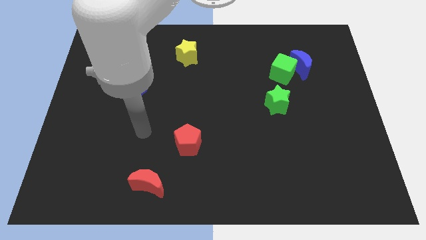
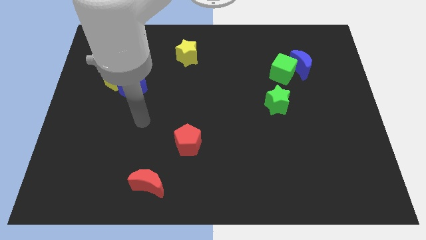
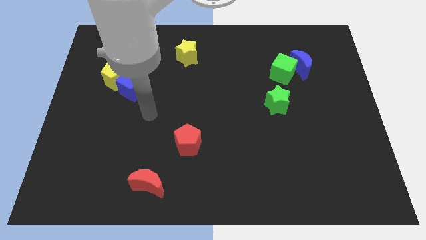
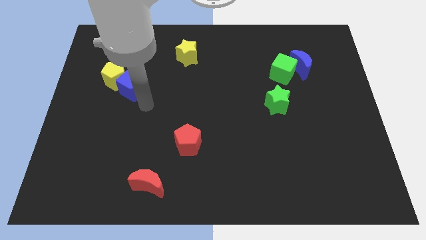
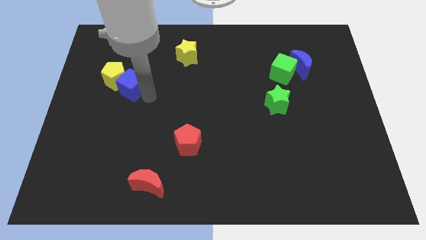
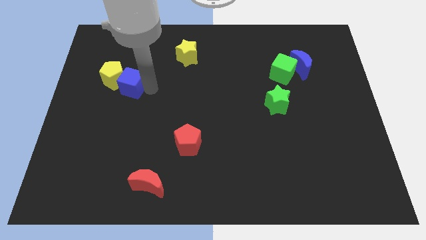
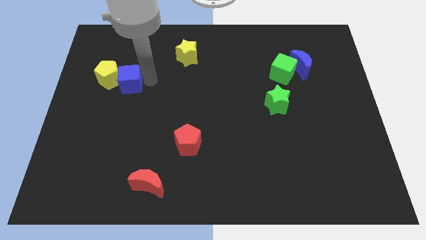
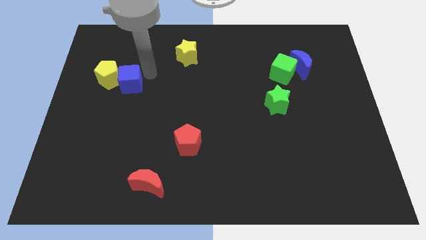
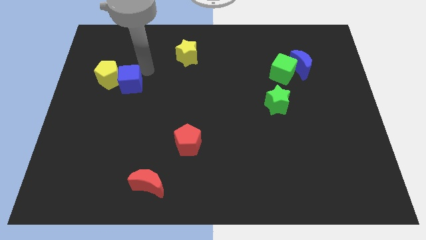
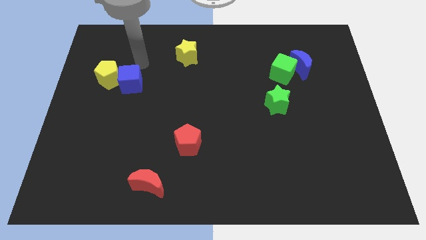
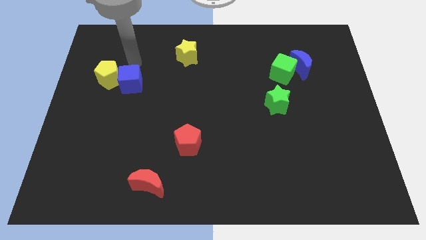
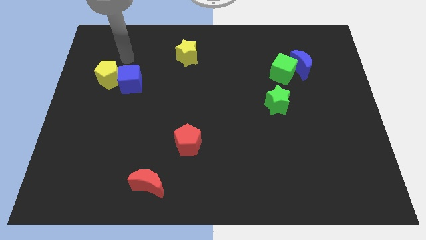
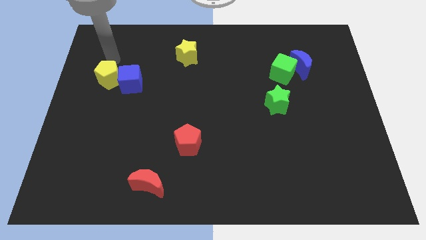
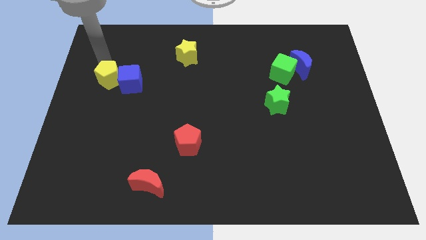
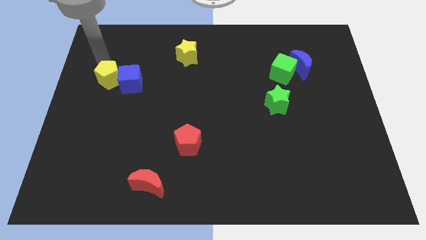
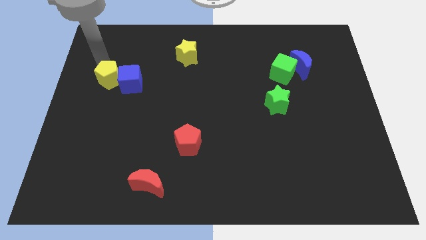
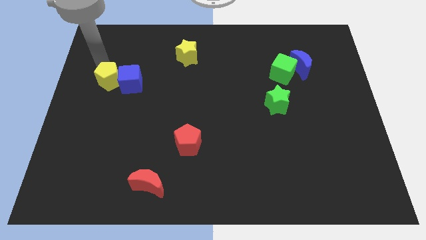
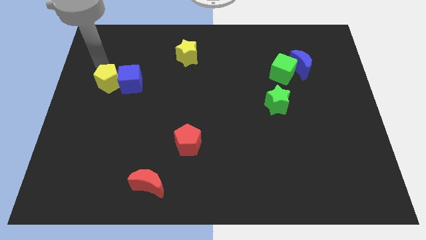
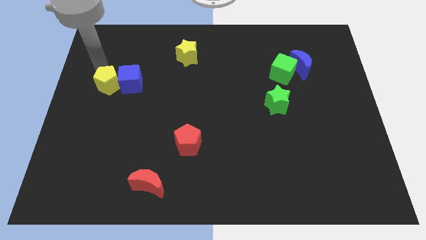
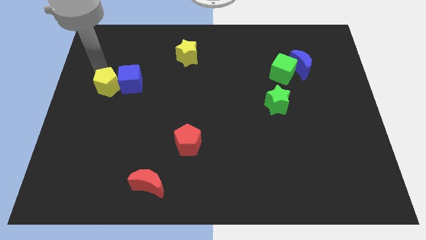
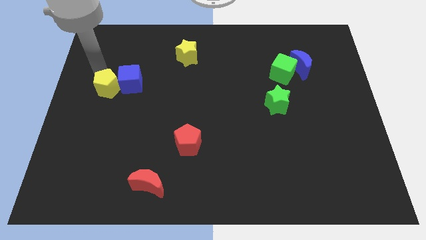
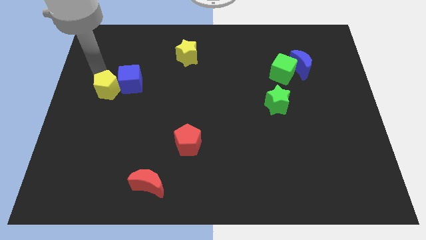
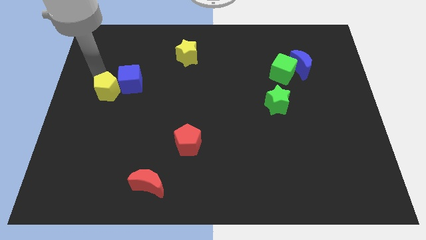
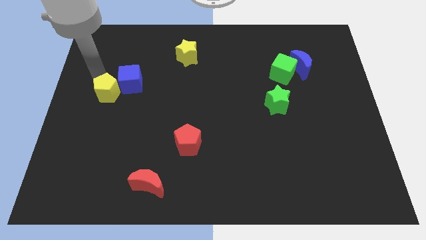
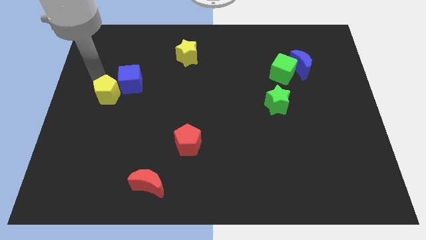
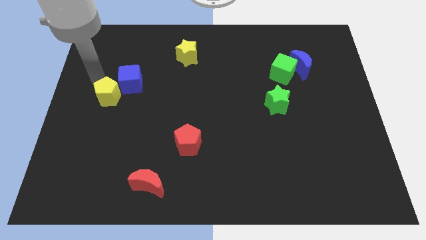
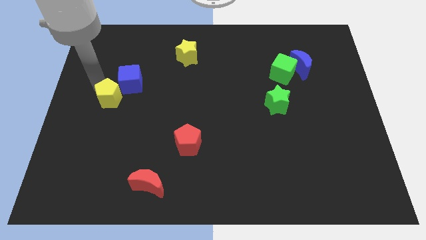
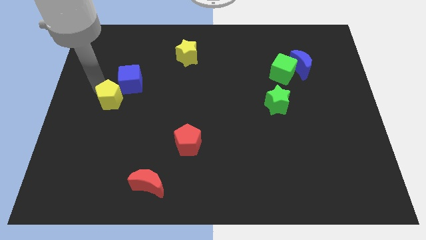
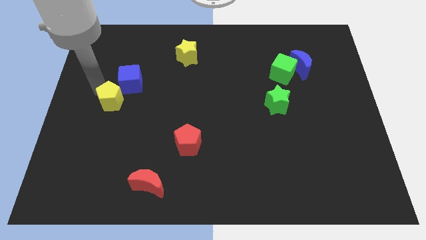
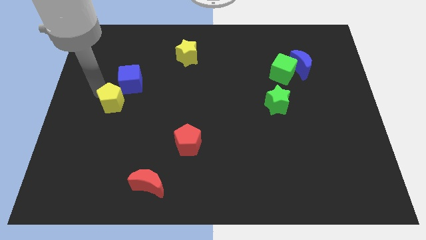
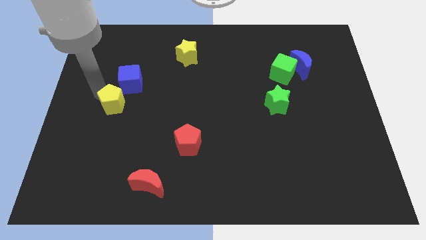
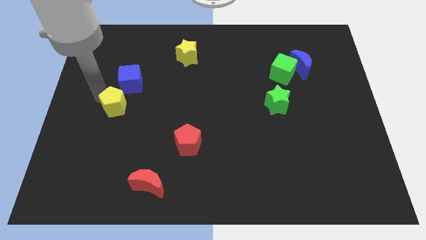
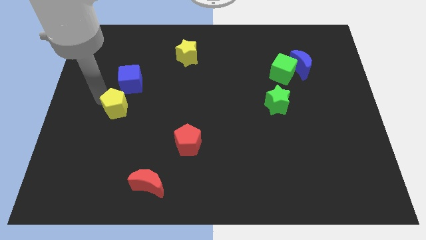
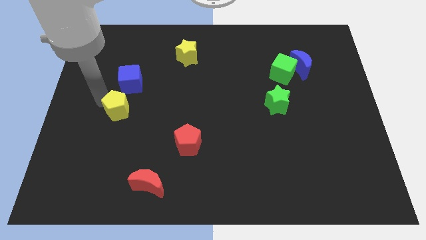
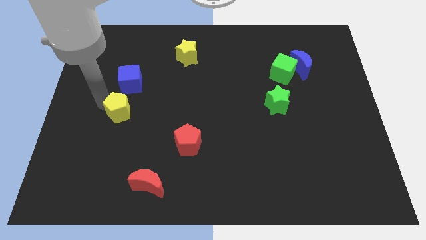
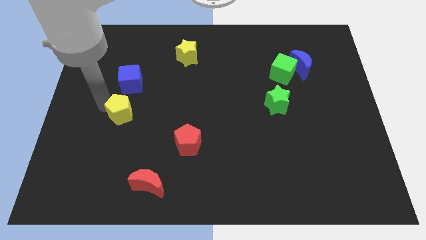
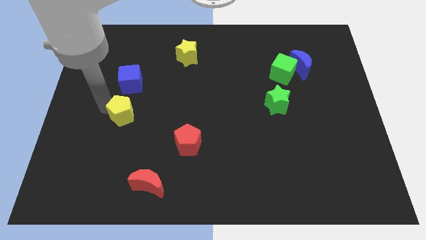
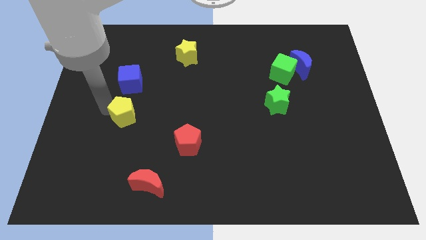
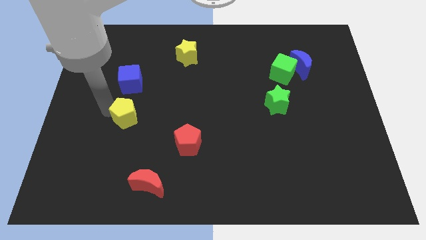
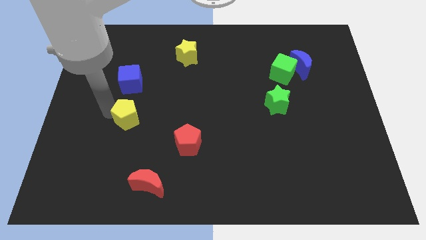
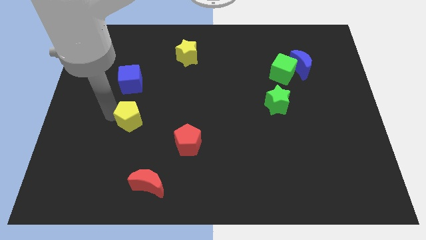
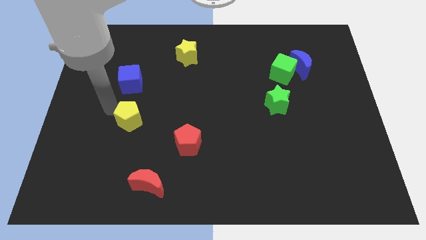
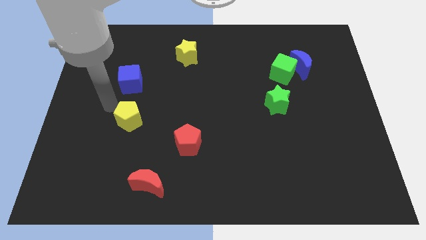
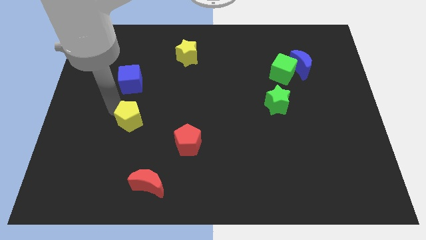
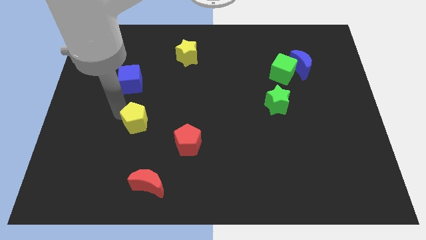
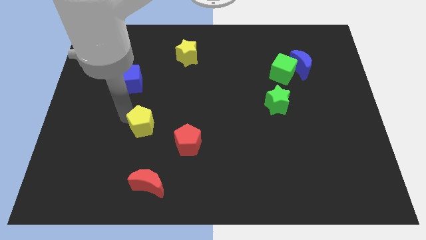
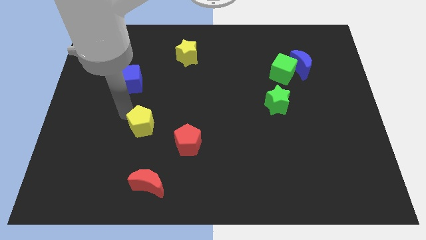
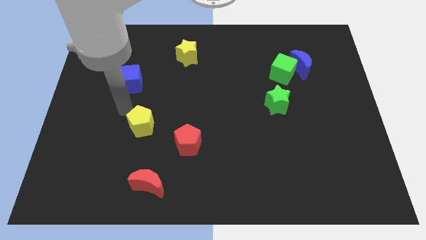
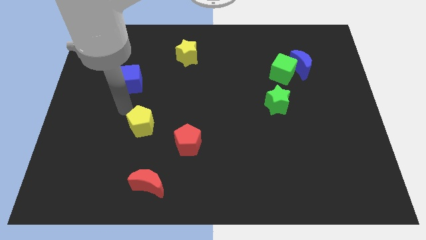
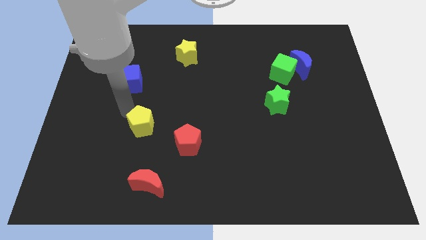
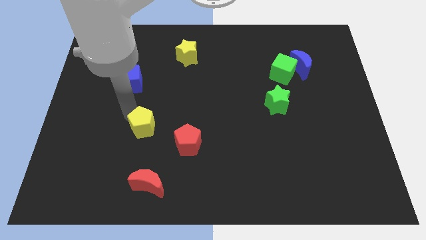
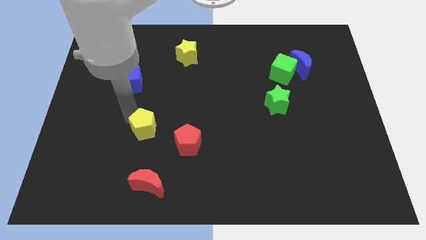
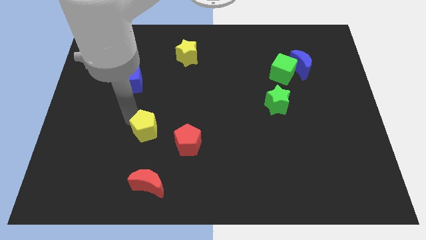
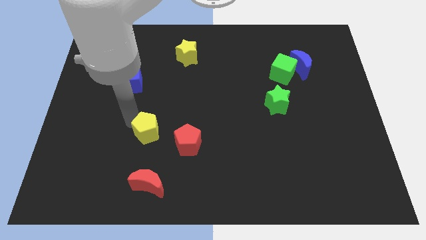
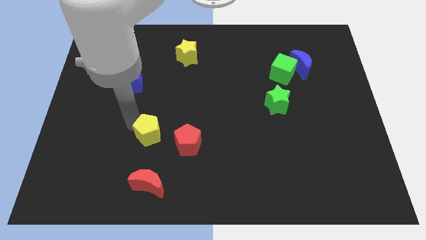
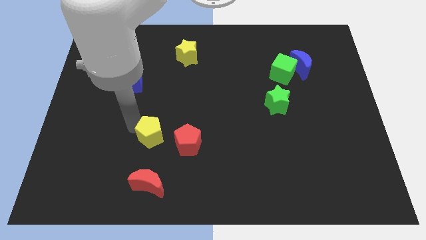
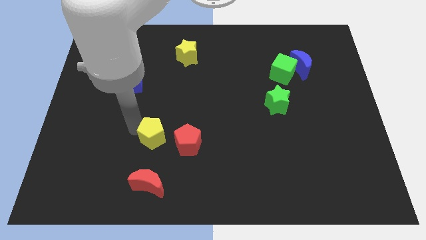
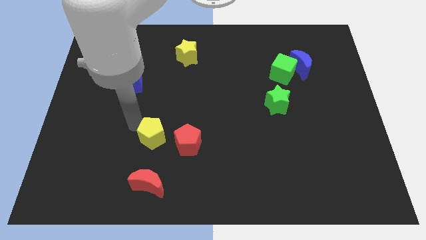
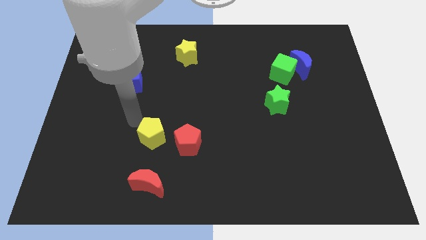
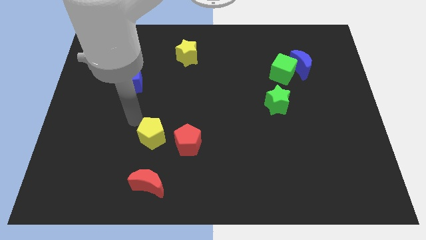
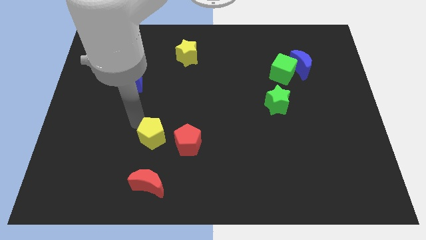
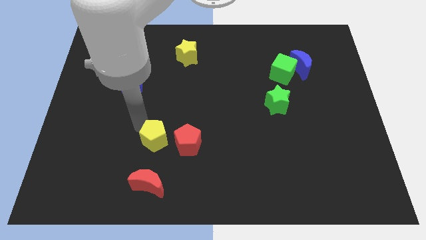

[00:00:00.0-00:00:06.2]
slide the yellow pentagon down and then to the right

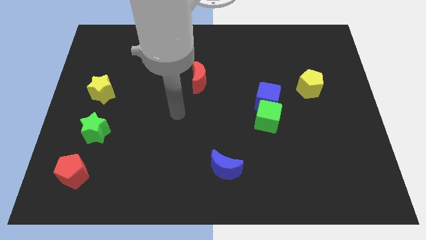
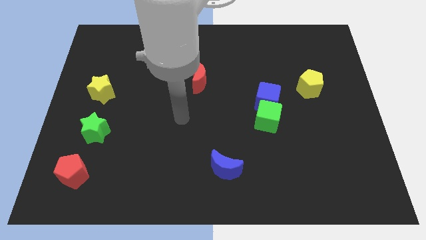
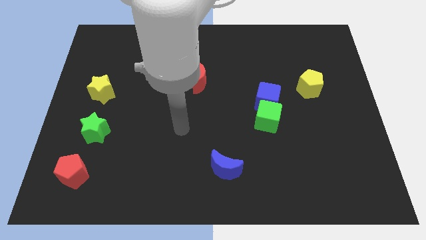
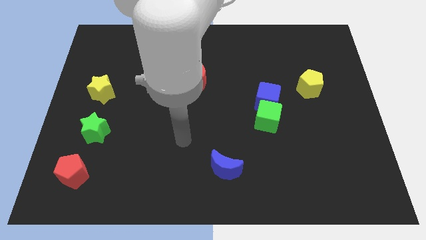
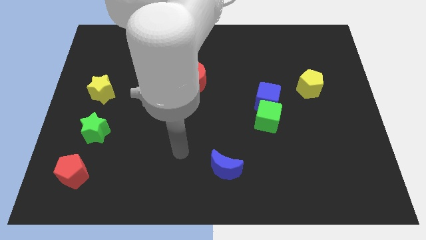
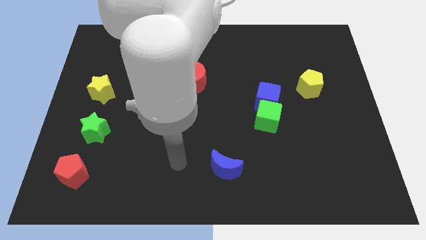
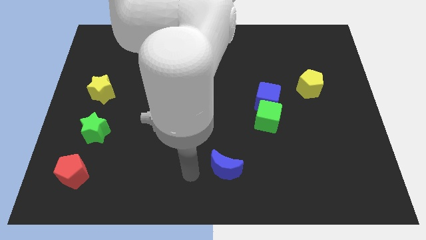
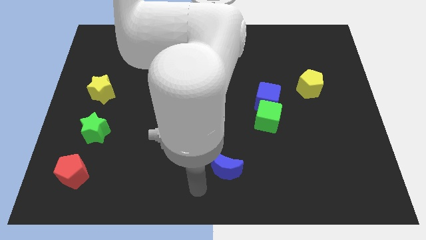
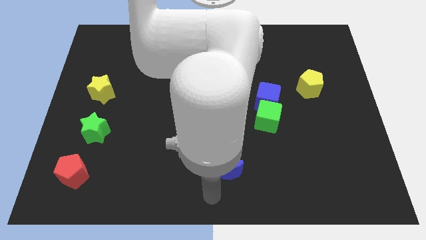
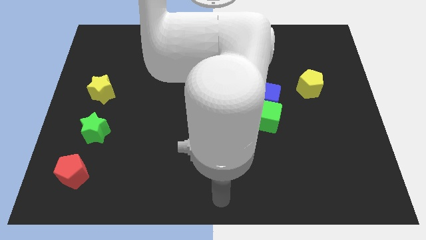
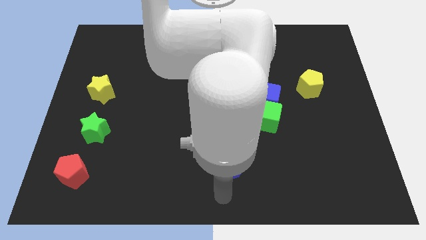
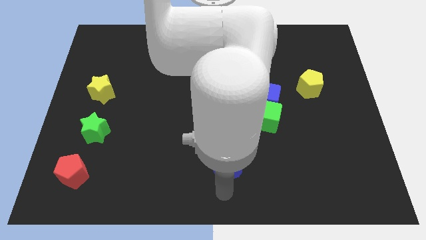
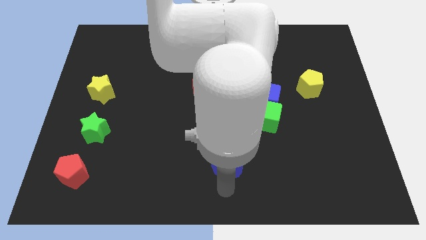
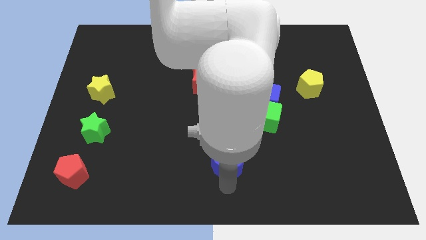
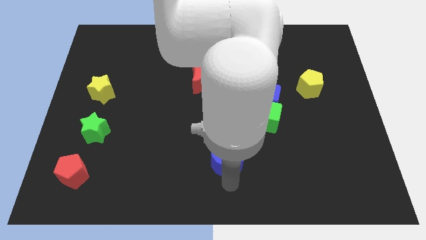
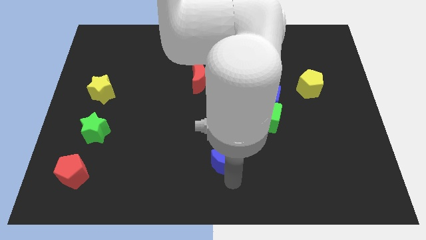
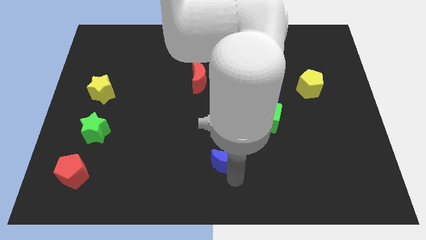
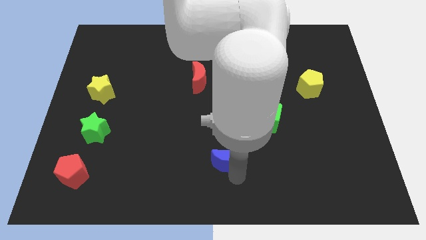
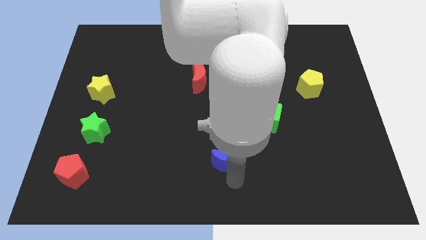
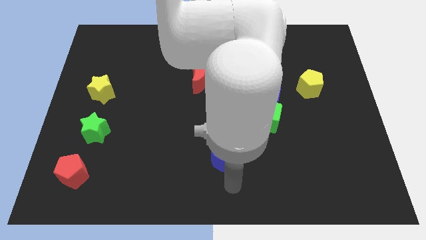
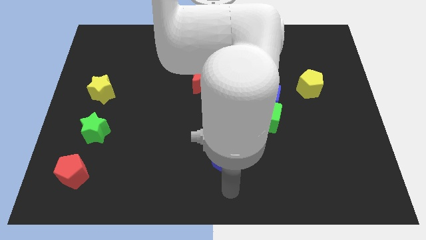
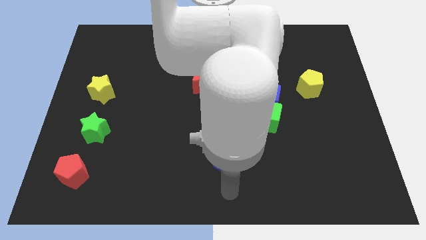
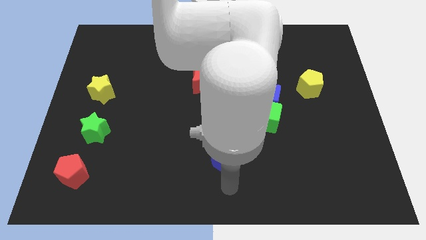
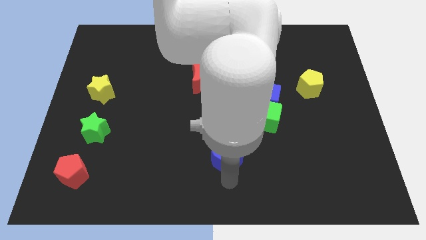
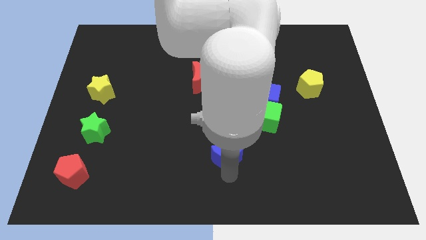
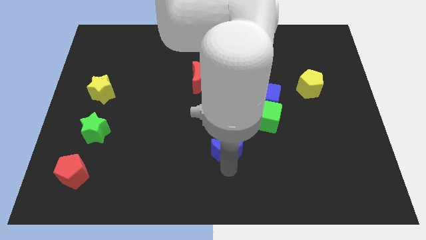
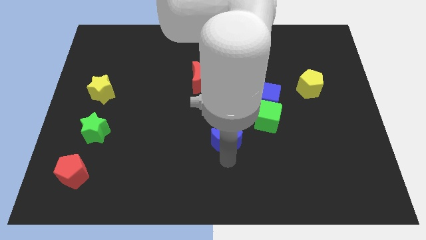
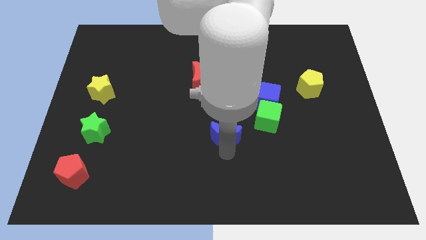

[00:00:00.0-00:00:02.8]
push the blue moon somewhat up
